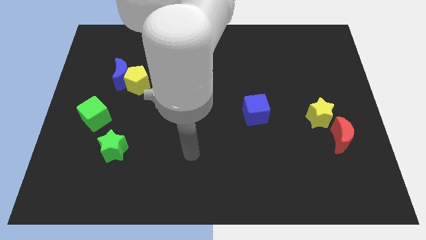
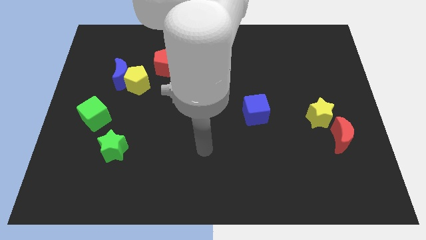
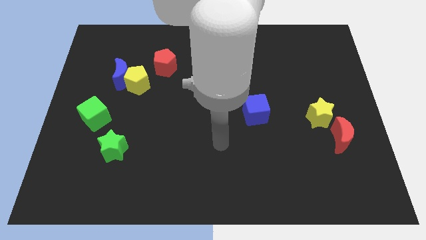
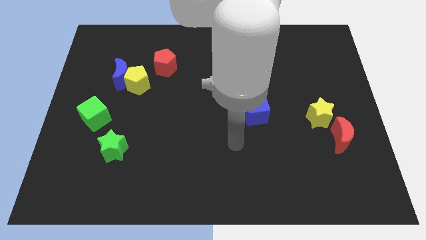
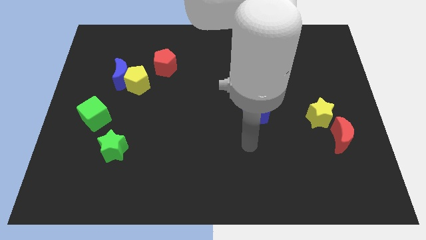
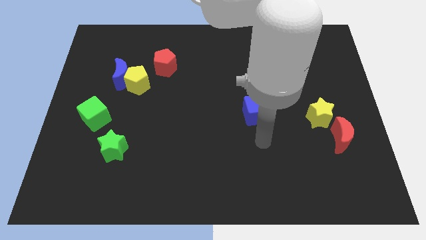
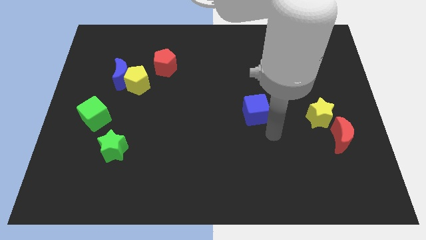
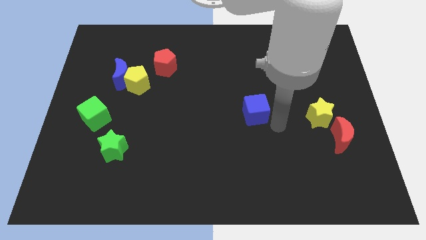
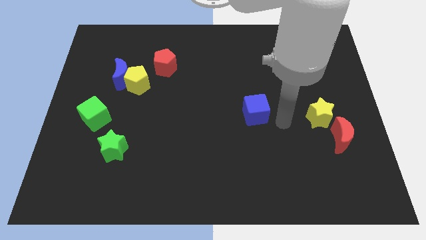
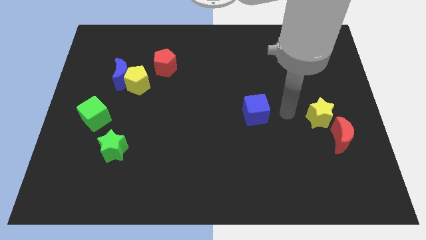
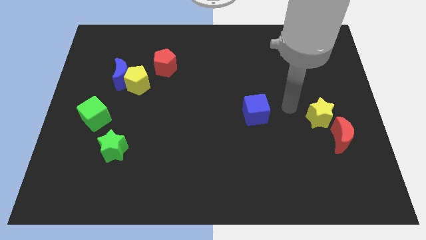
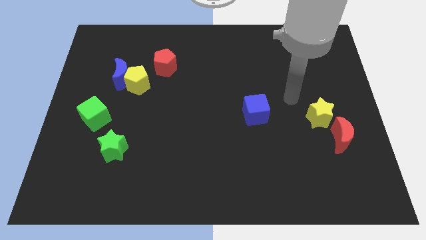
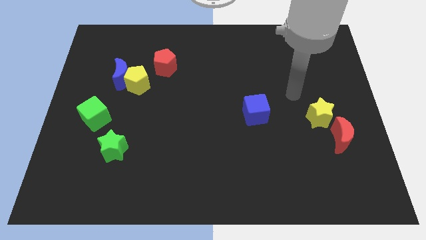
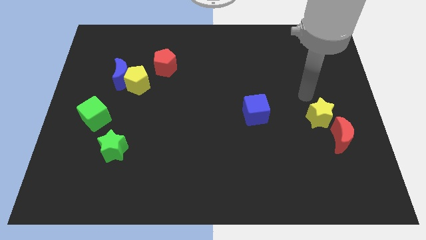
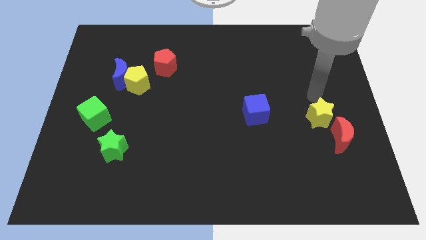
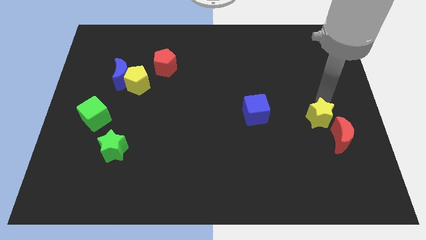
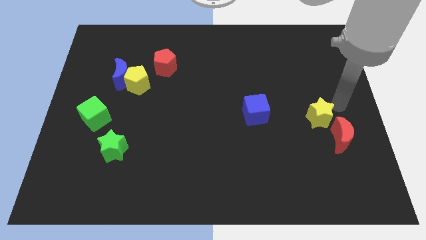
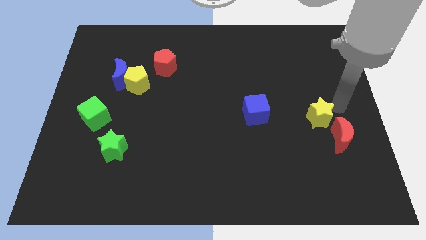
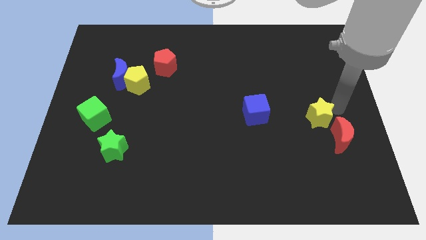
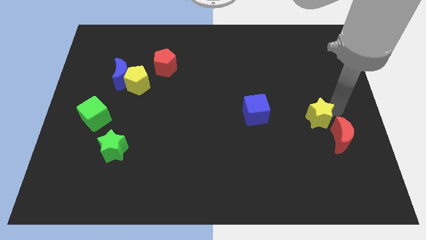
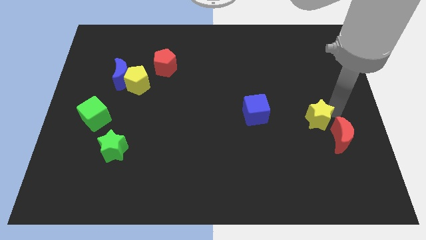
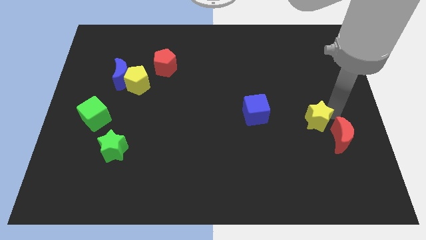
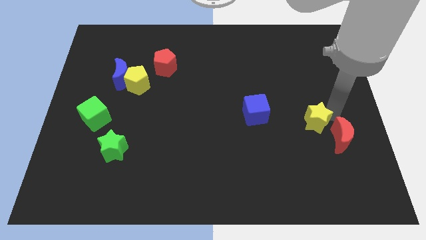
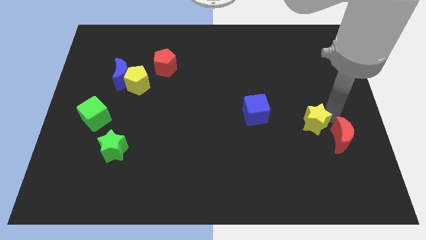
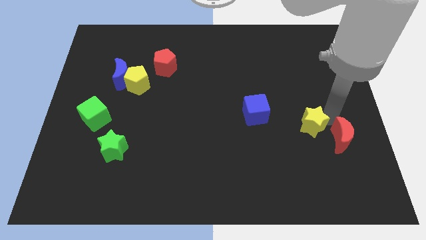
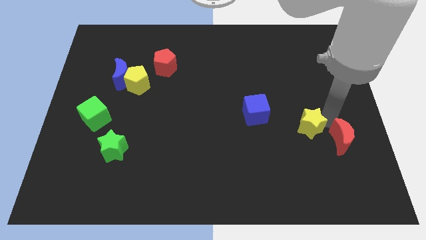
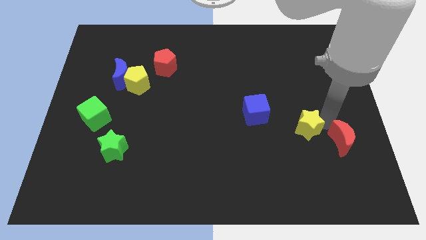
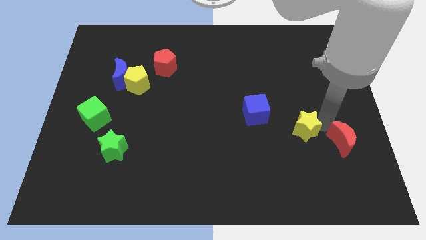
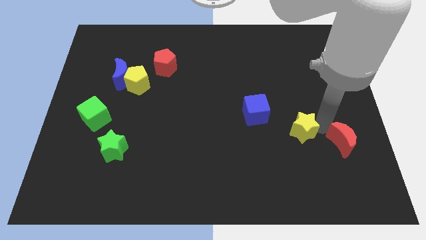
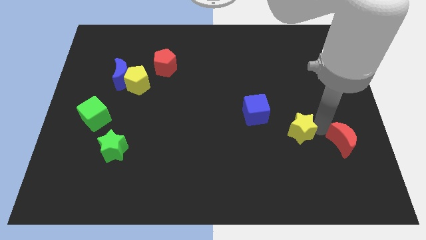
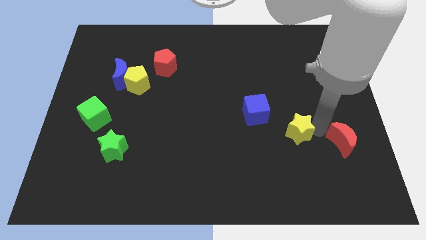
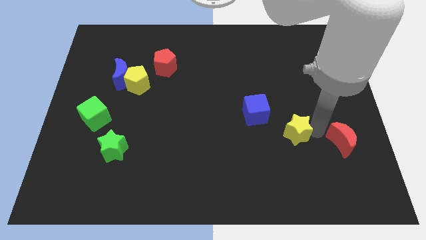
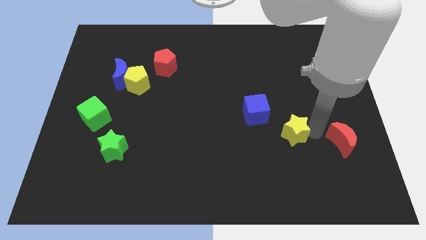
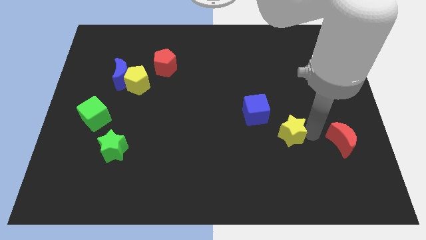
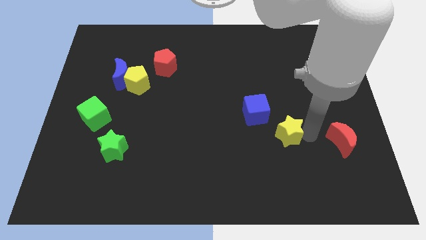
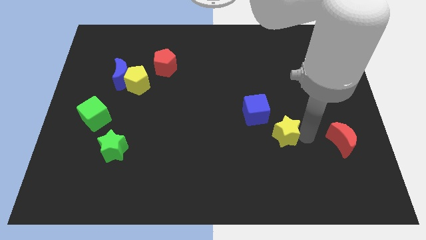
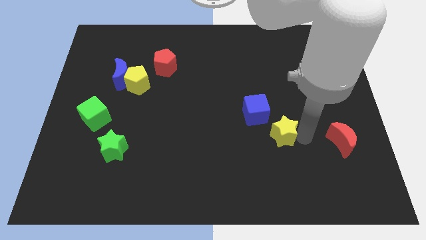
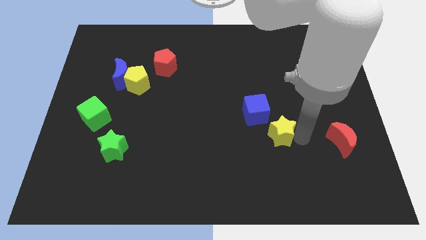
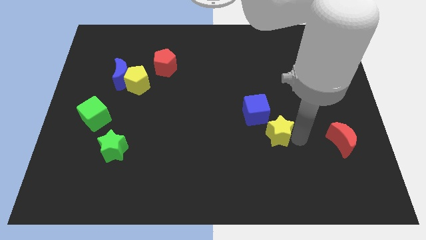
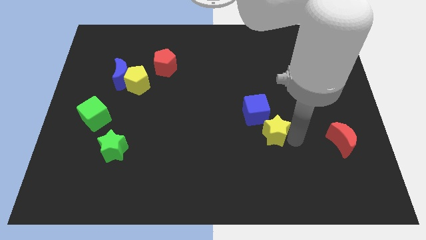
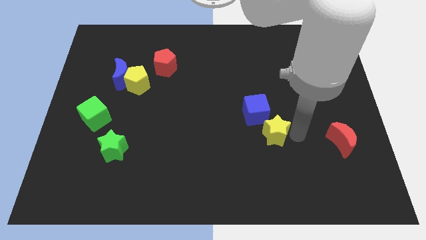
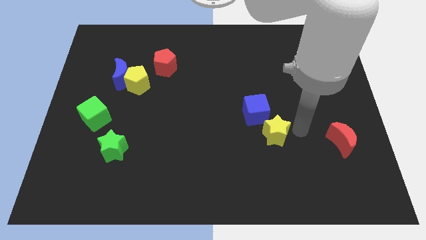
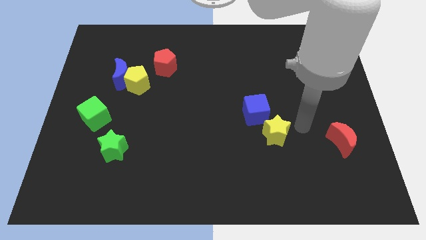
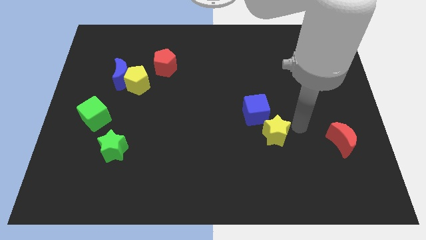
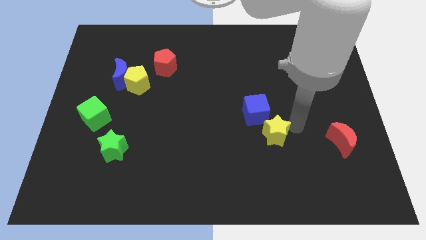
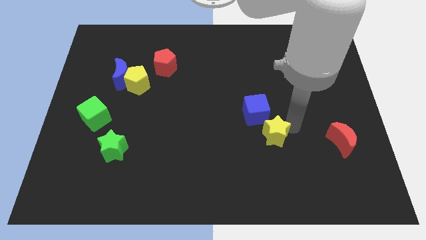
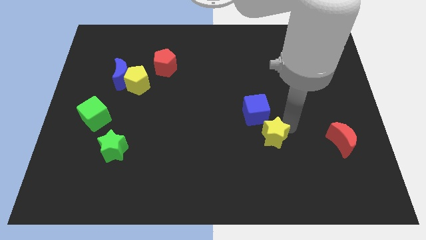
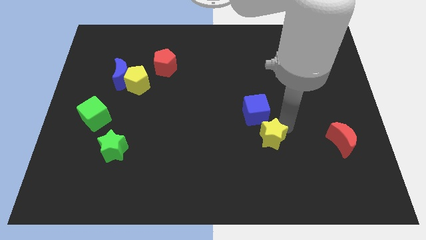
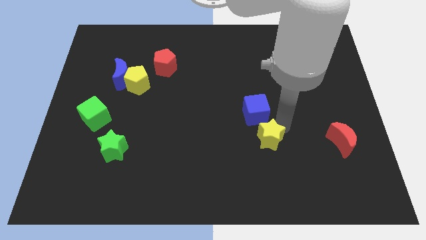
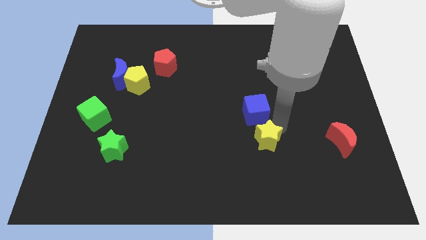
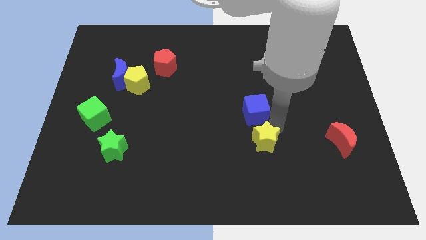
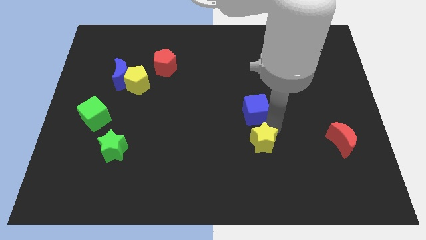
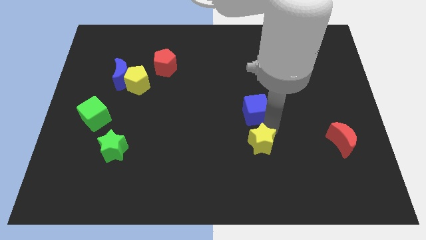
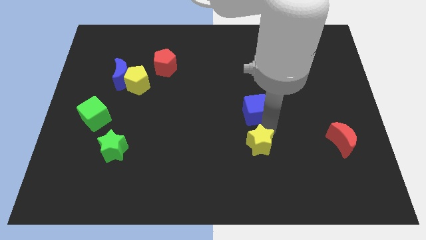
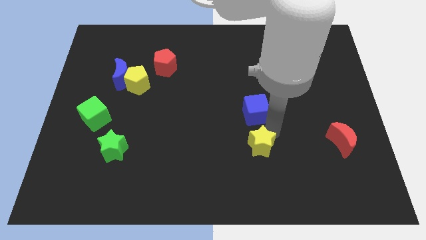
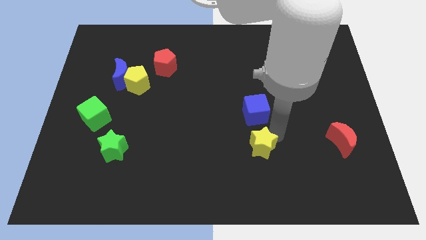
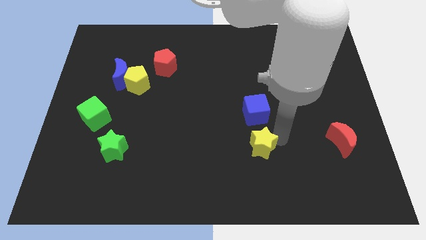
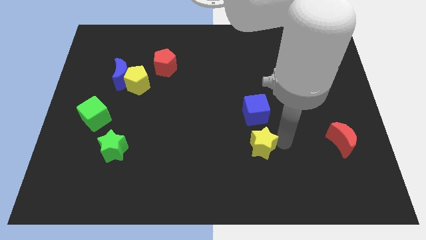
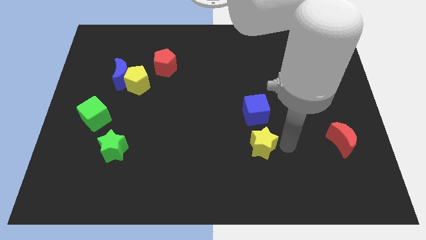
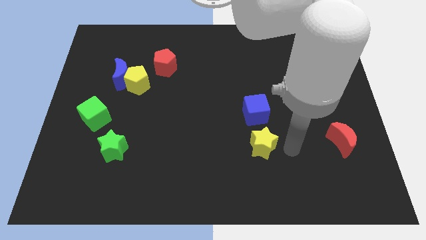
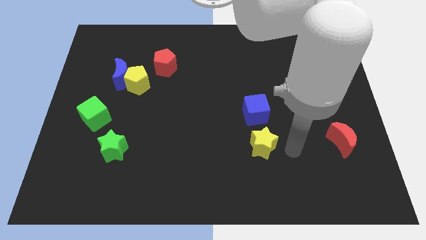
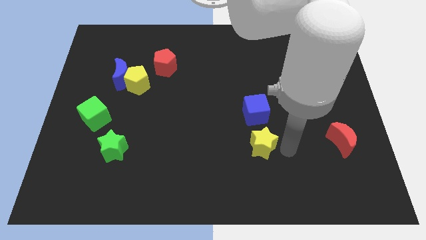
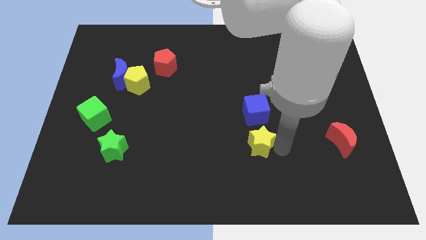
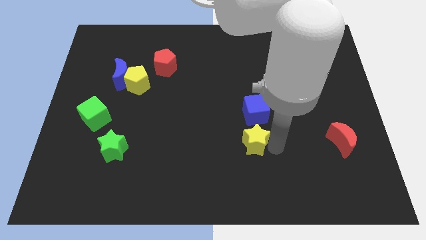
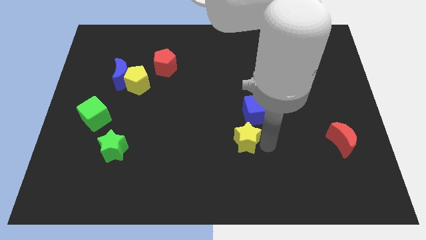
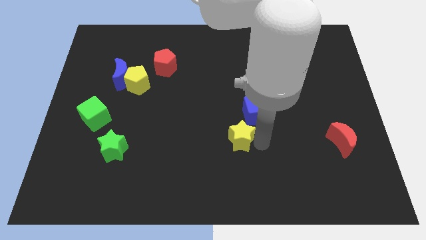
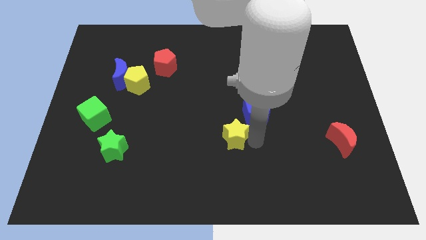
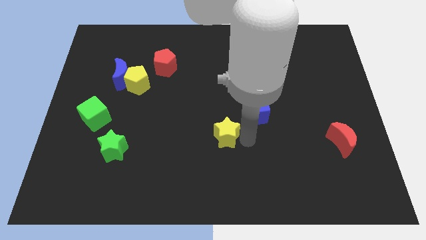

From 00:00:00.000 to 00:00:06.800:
push the yellow star to the left

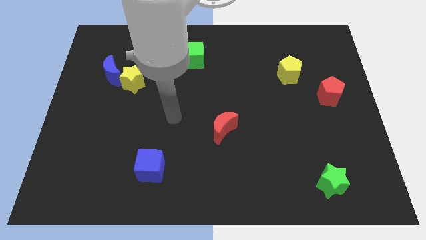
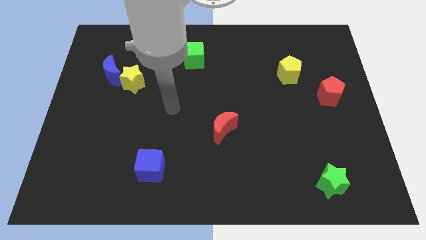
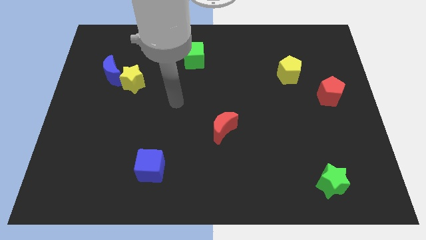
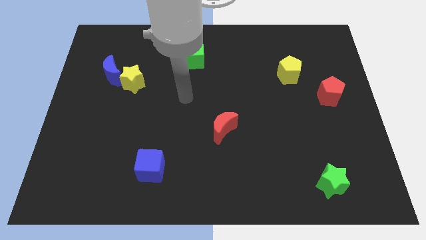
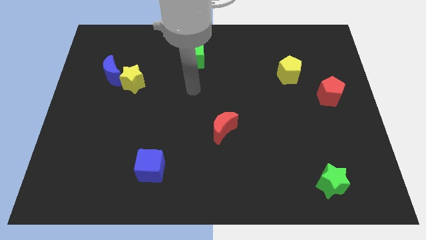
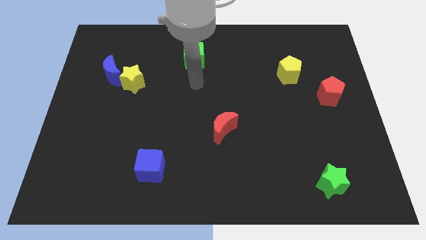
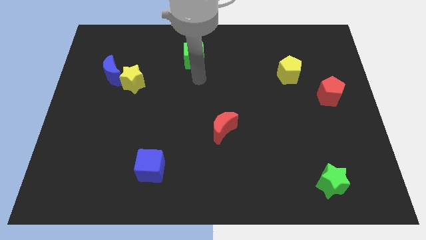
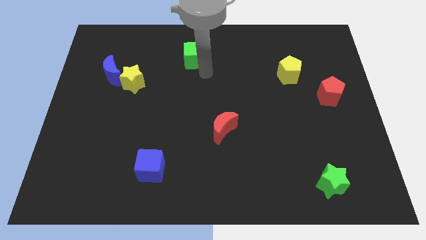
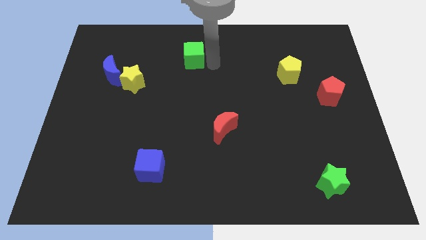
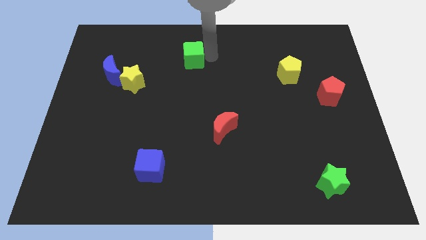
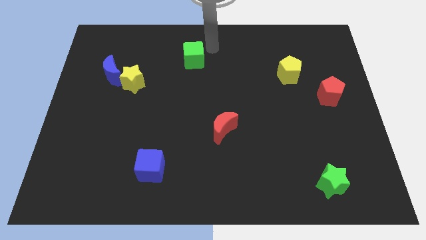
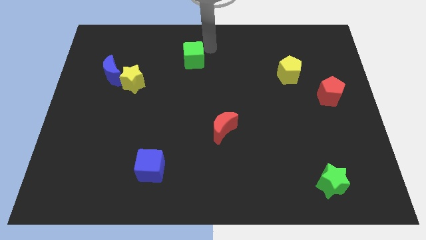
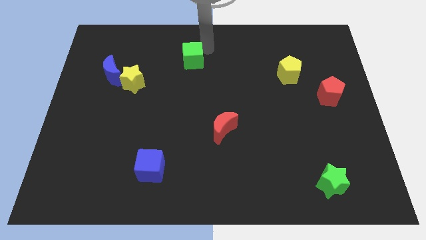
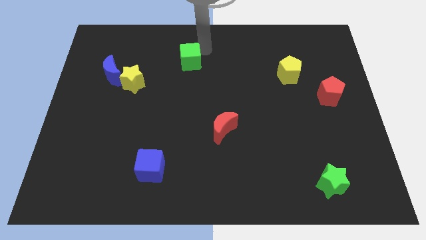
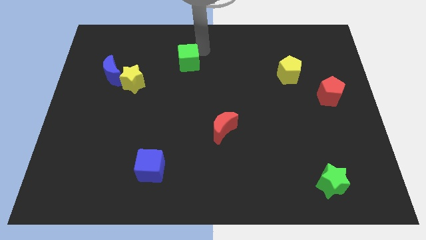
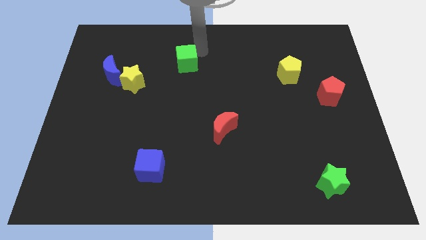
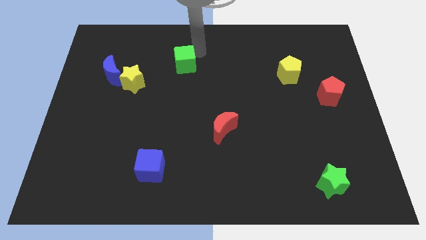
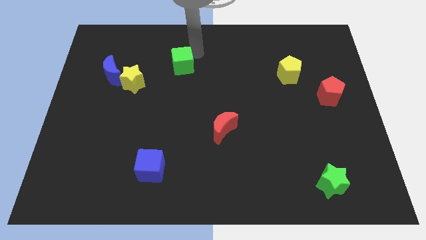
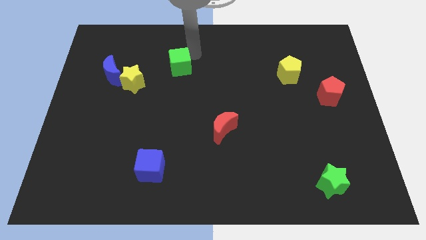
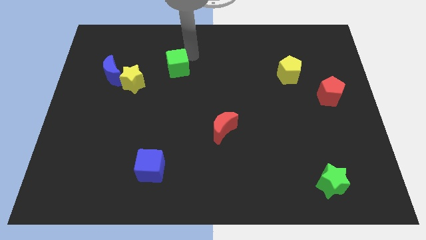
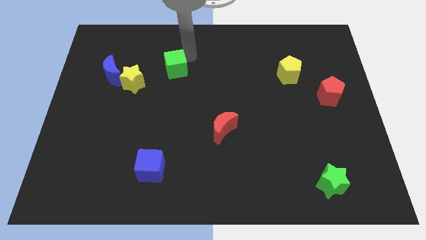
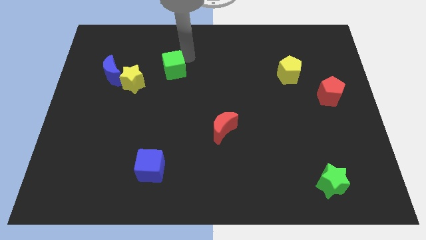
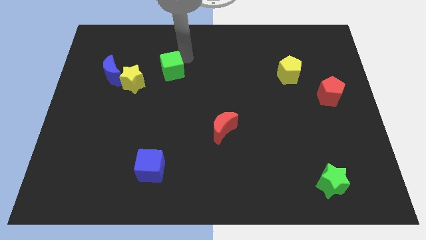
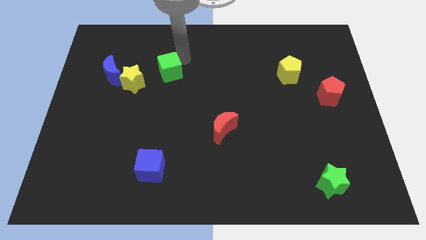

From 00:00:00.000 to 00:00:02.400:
move the green cube a little bit downwards and left diagonally
